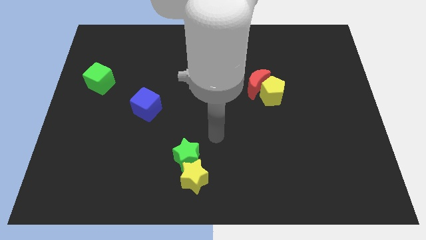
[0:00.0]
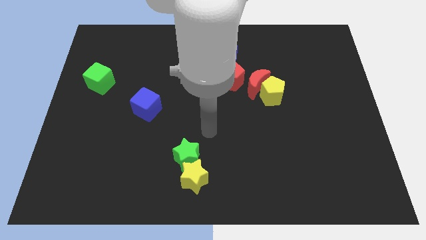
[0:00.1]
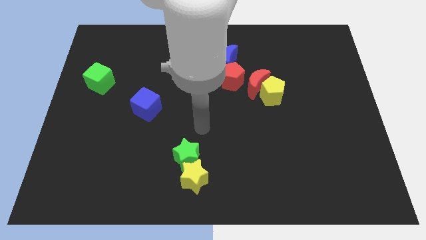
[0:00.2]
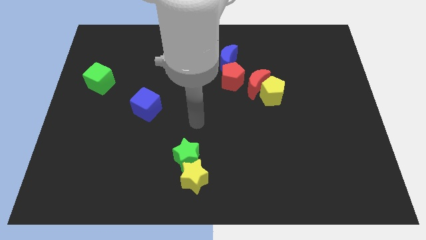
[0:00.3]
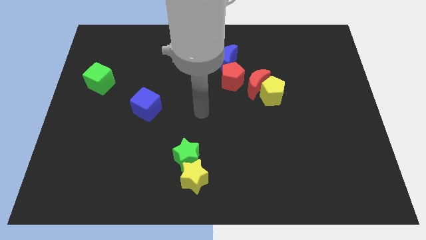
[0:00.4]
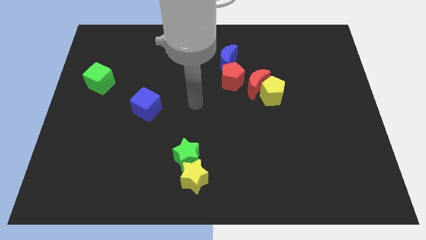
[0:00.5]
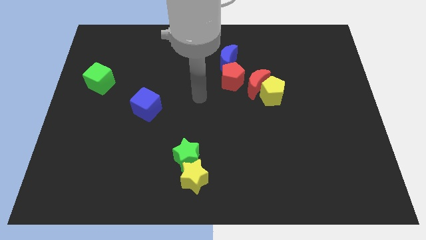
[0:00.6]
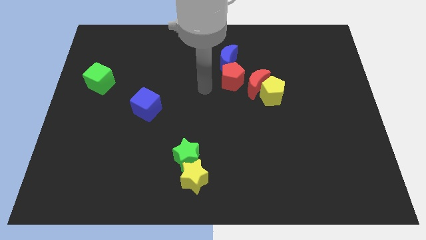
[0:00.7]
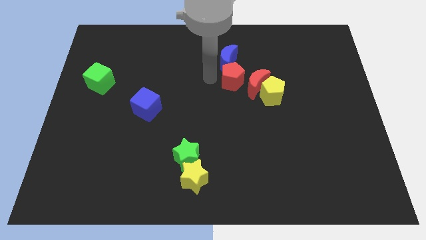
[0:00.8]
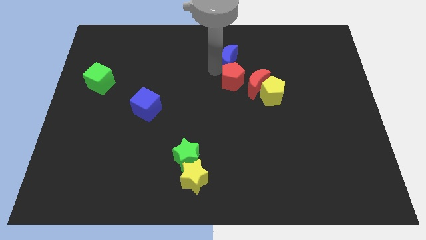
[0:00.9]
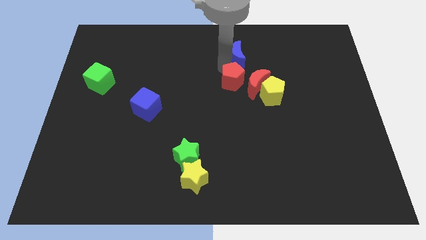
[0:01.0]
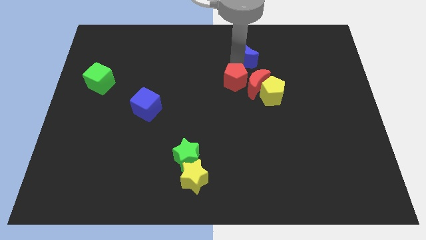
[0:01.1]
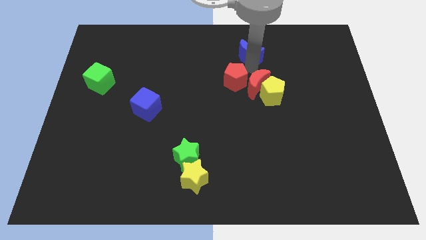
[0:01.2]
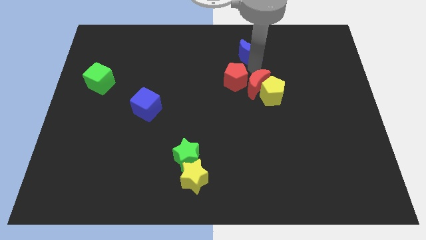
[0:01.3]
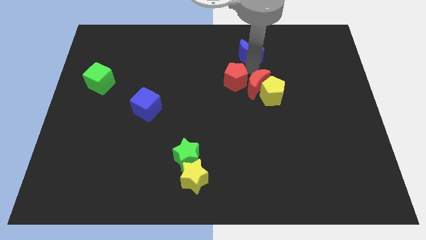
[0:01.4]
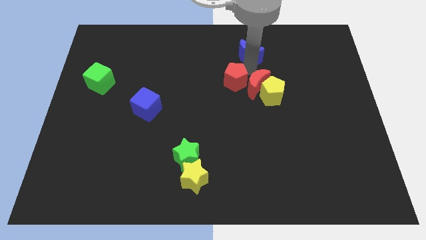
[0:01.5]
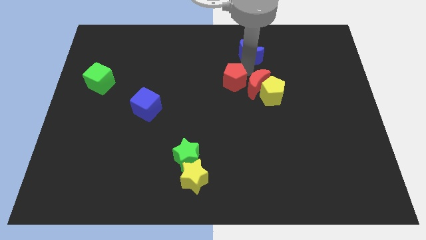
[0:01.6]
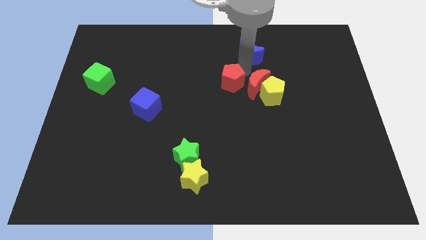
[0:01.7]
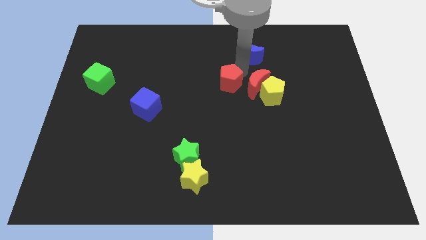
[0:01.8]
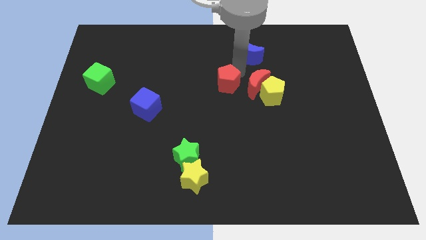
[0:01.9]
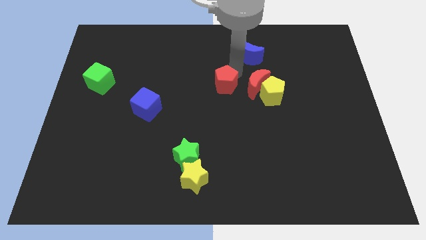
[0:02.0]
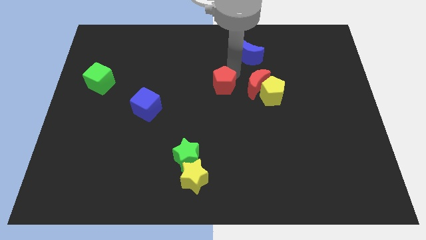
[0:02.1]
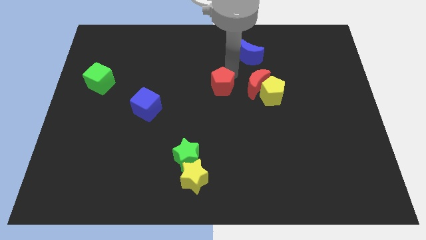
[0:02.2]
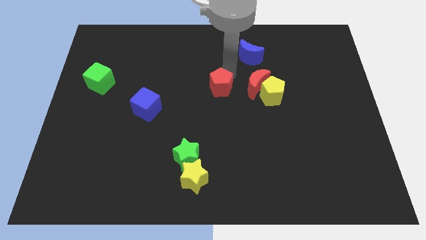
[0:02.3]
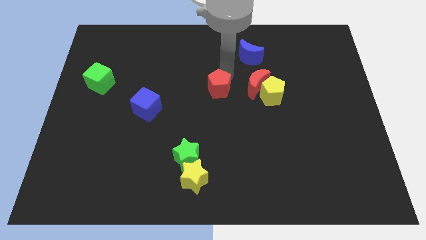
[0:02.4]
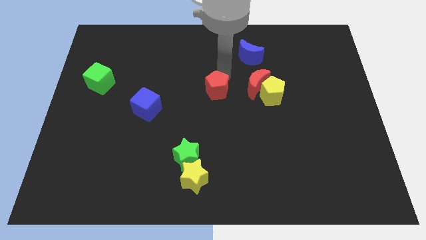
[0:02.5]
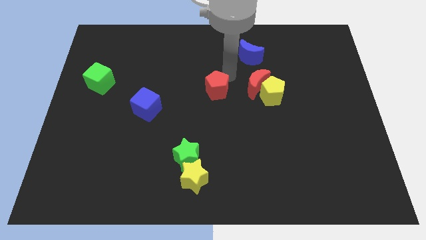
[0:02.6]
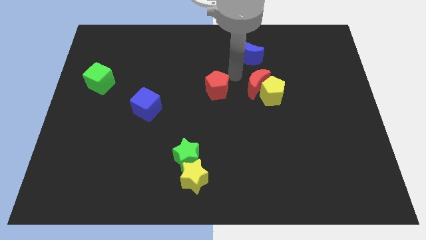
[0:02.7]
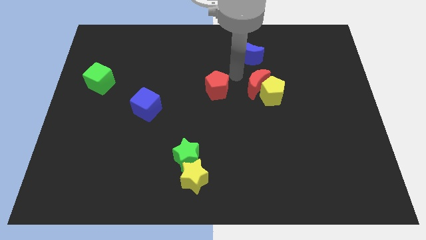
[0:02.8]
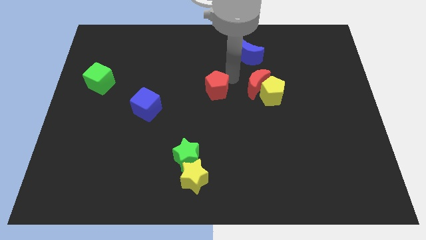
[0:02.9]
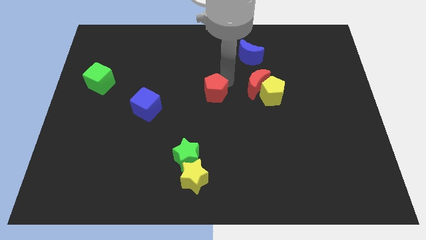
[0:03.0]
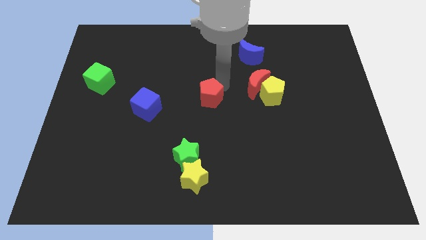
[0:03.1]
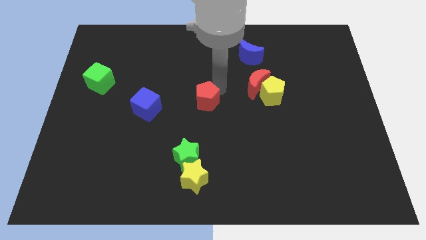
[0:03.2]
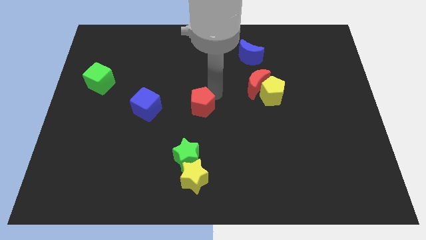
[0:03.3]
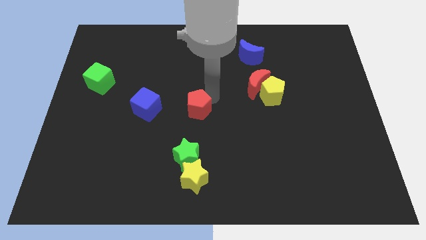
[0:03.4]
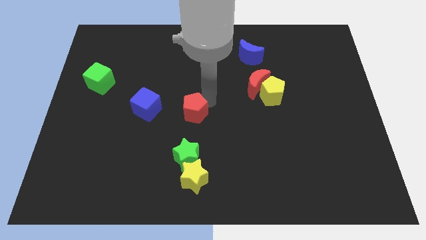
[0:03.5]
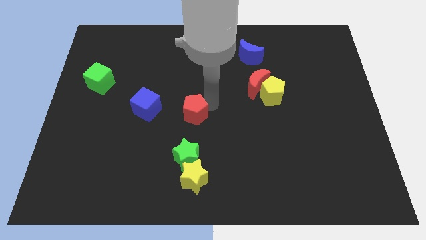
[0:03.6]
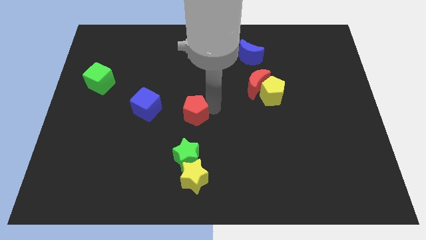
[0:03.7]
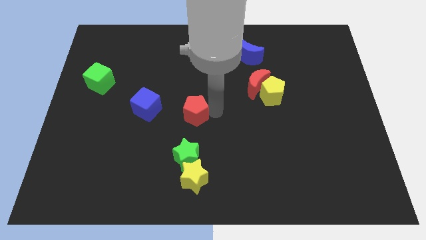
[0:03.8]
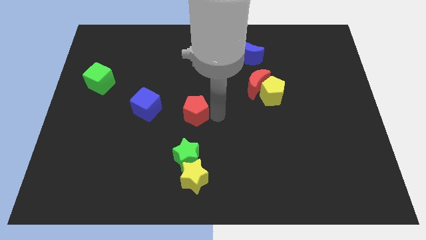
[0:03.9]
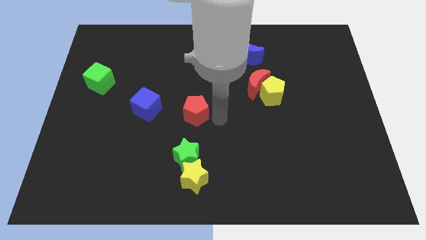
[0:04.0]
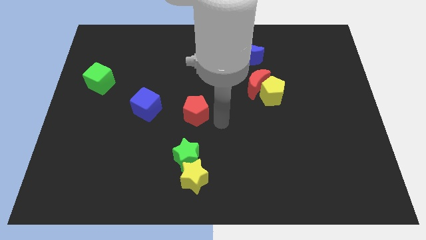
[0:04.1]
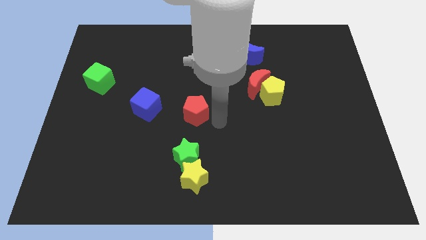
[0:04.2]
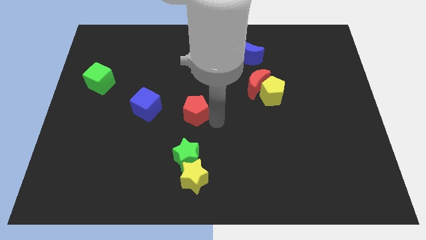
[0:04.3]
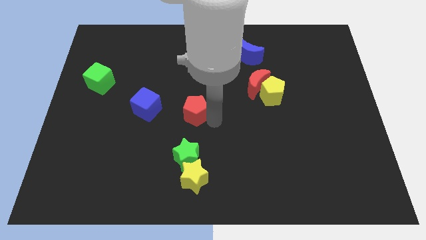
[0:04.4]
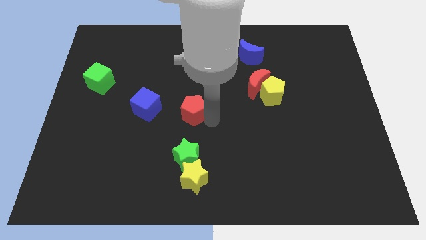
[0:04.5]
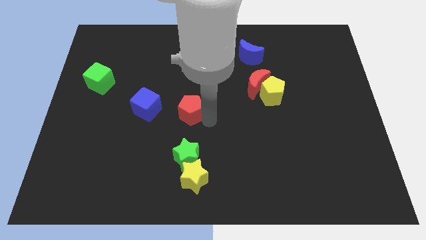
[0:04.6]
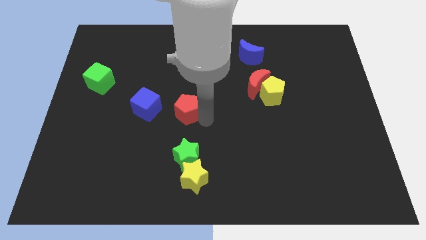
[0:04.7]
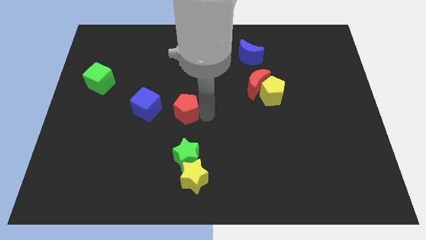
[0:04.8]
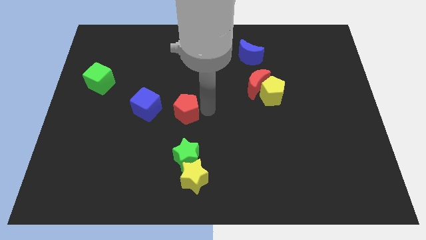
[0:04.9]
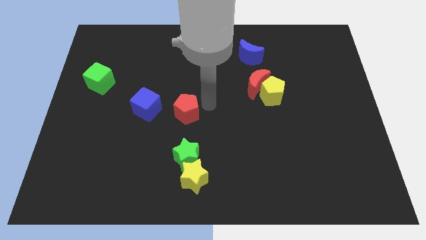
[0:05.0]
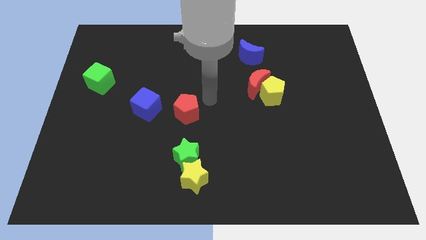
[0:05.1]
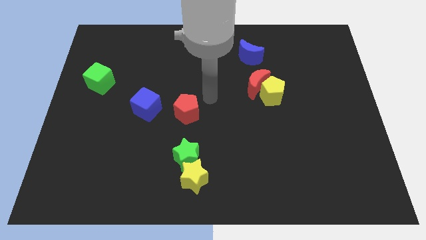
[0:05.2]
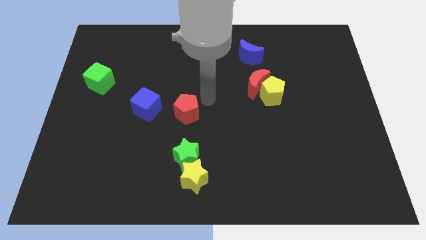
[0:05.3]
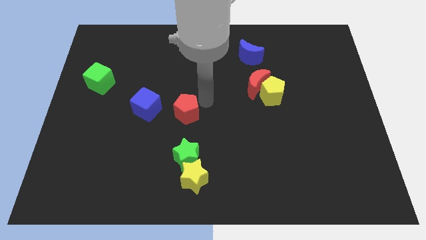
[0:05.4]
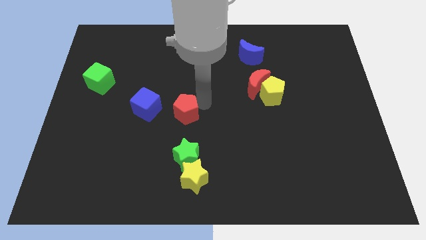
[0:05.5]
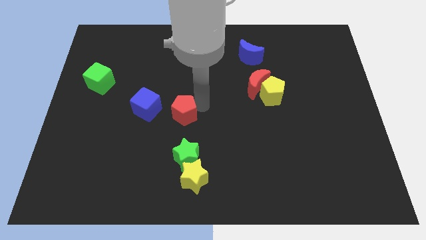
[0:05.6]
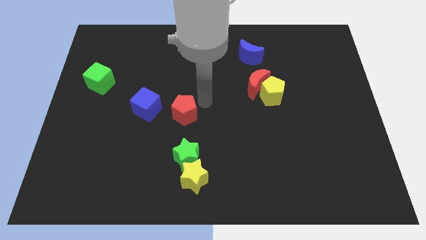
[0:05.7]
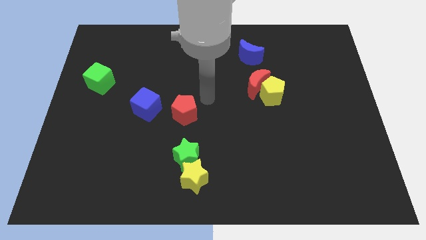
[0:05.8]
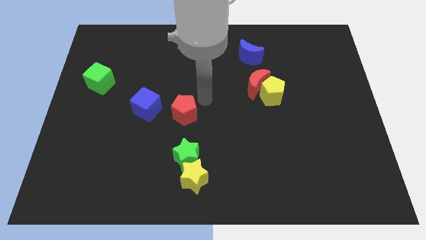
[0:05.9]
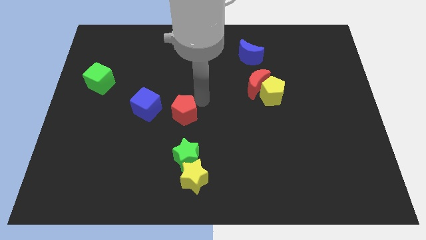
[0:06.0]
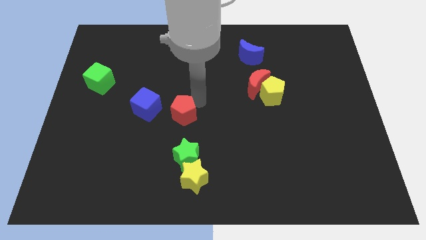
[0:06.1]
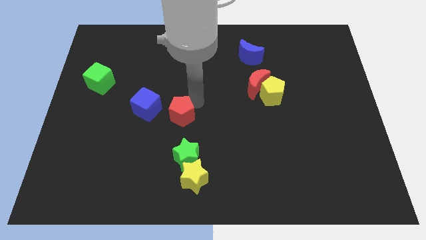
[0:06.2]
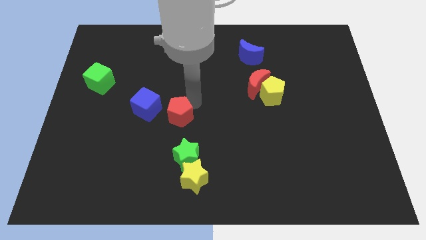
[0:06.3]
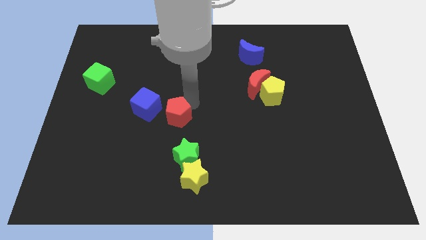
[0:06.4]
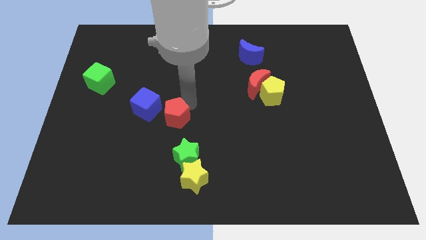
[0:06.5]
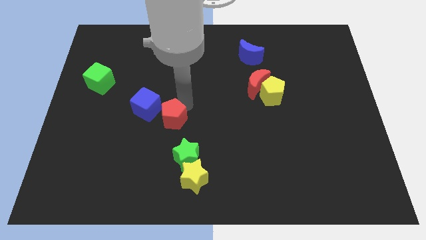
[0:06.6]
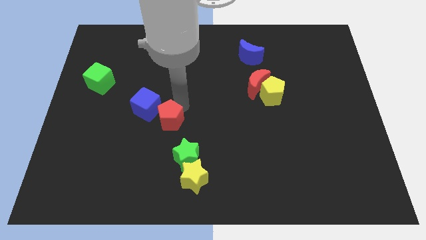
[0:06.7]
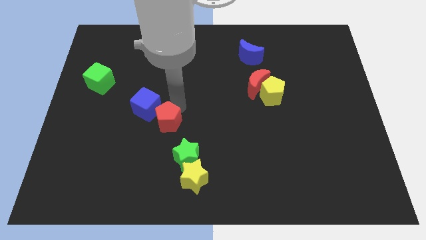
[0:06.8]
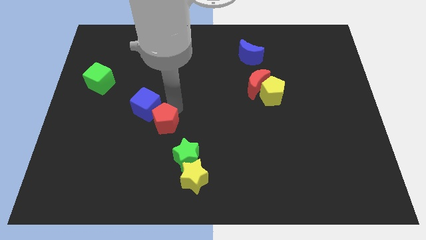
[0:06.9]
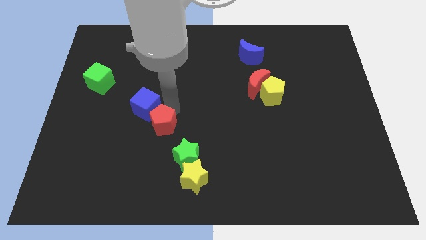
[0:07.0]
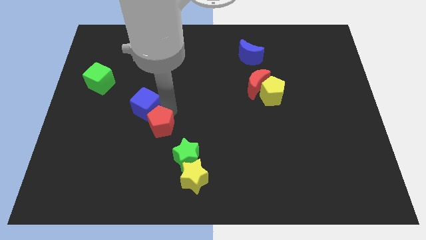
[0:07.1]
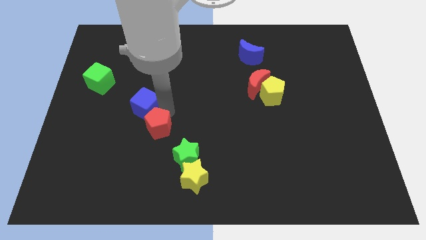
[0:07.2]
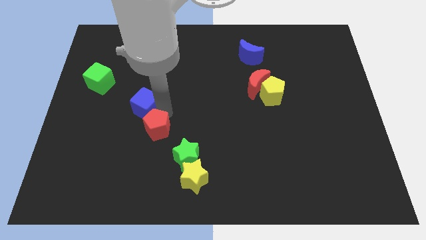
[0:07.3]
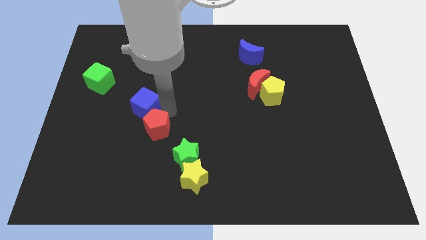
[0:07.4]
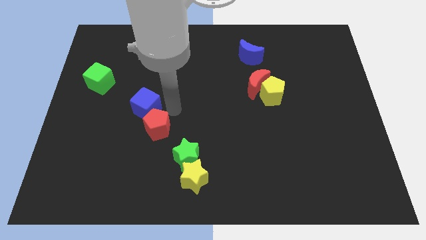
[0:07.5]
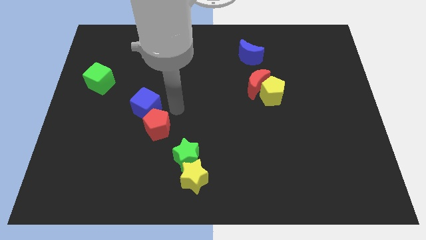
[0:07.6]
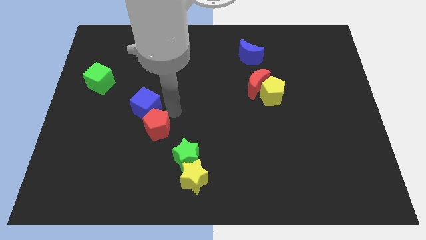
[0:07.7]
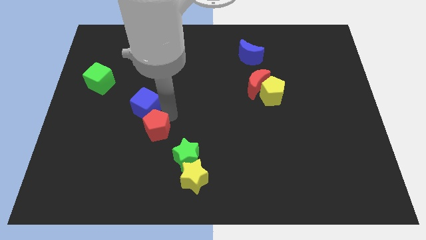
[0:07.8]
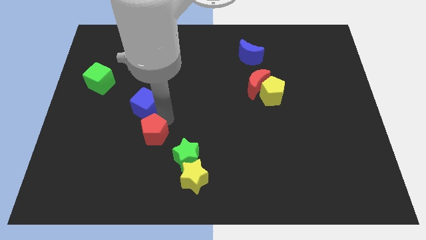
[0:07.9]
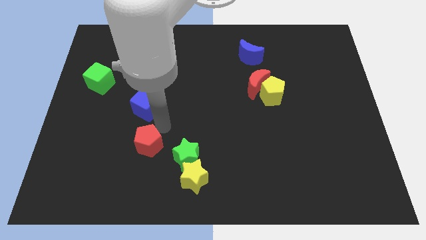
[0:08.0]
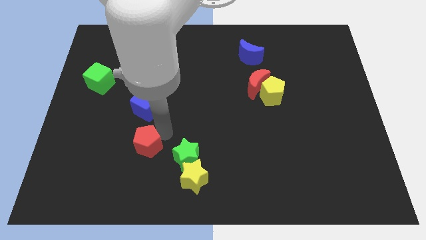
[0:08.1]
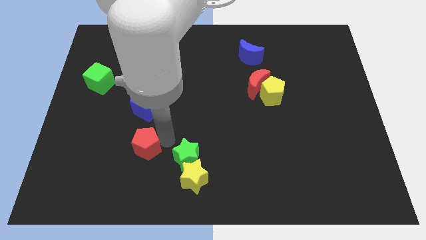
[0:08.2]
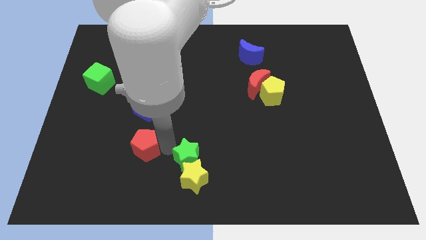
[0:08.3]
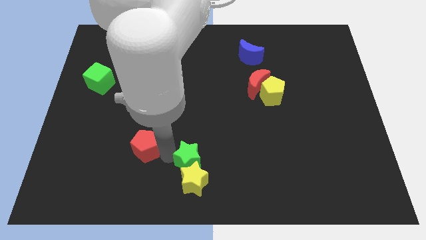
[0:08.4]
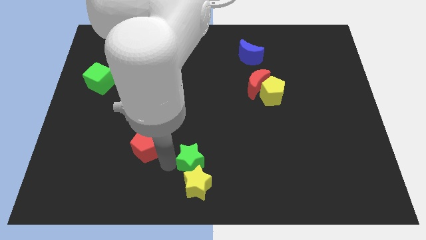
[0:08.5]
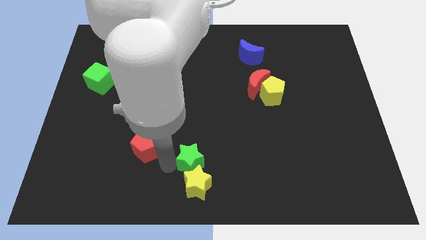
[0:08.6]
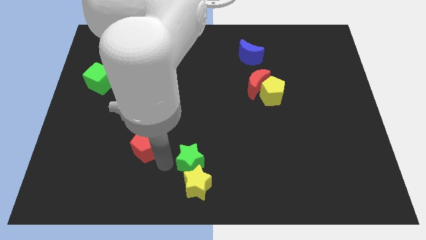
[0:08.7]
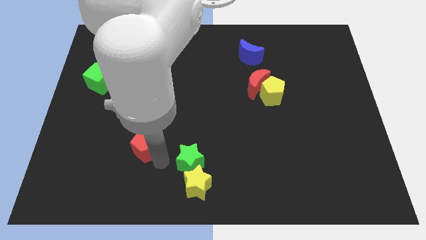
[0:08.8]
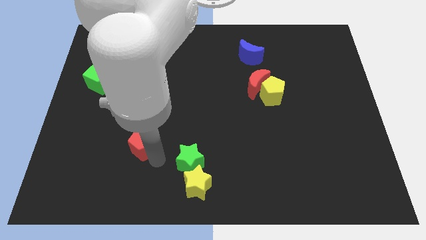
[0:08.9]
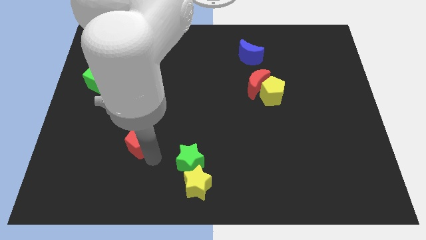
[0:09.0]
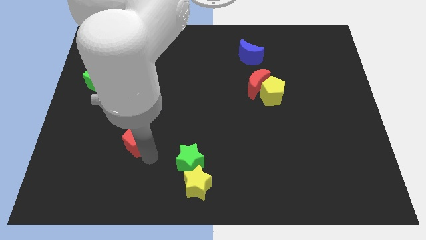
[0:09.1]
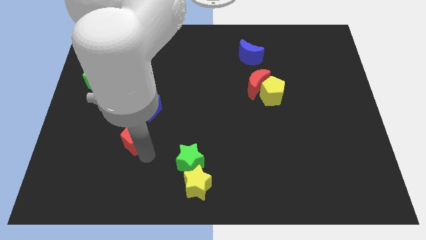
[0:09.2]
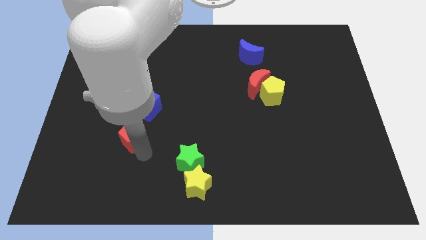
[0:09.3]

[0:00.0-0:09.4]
move the red pentagon diagonally down and to the left of the blue cube
